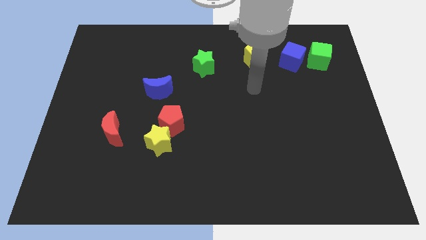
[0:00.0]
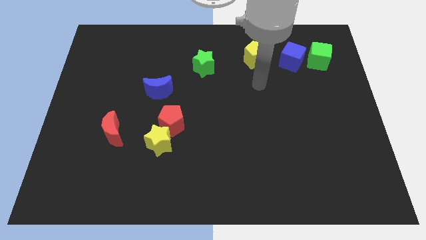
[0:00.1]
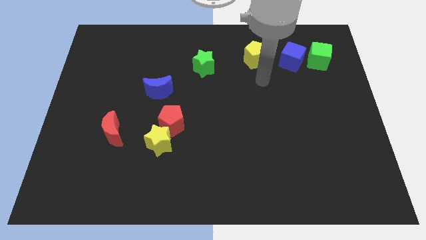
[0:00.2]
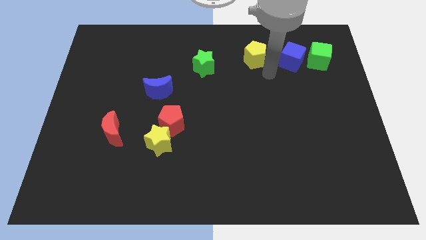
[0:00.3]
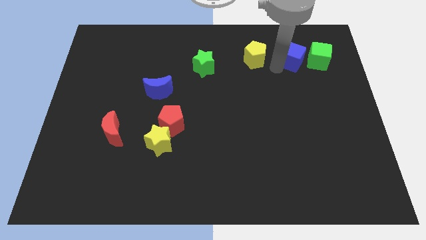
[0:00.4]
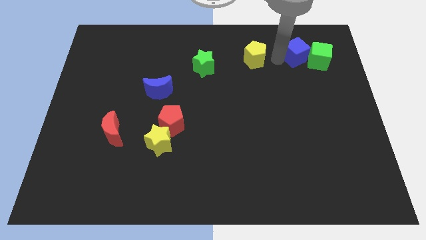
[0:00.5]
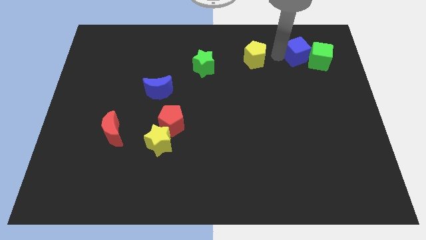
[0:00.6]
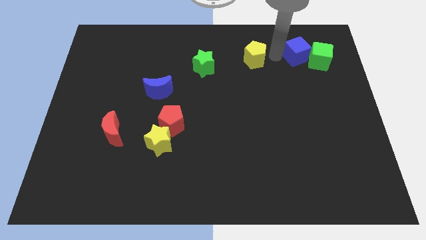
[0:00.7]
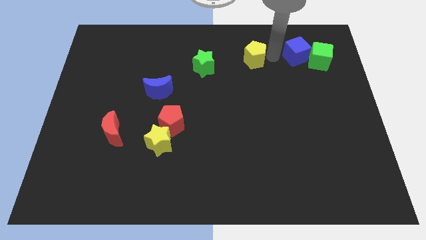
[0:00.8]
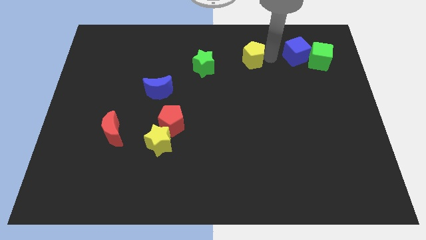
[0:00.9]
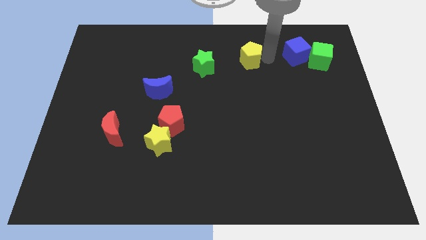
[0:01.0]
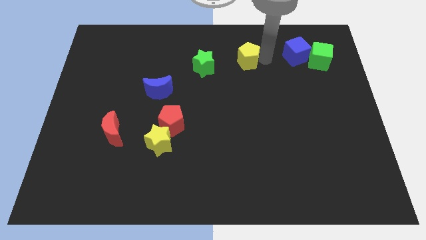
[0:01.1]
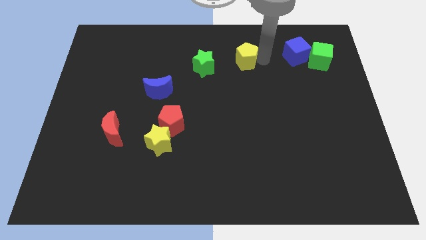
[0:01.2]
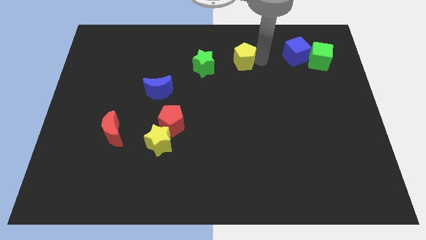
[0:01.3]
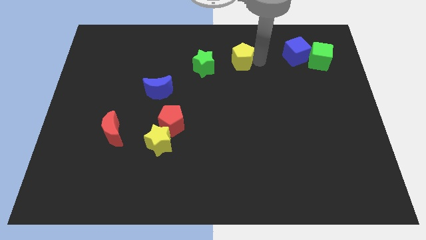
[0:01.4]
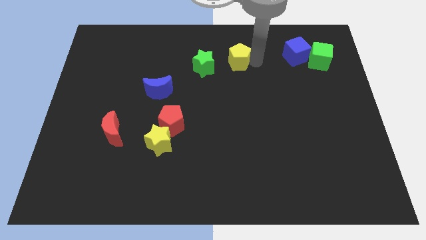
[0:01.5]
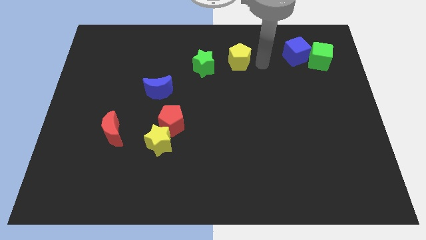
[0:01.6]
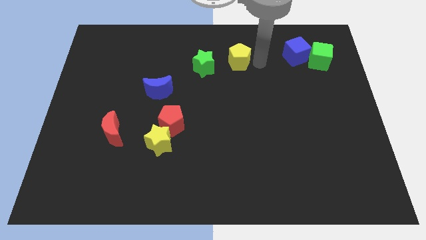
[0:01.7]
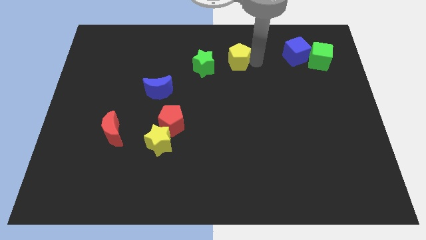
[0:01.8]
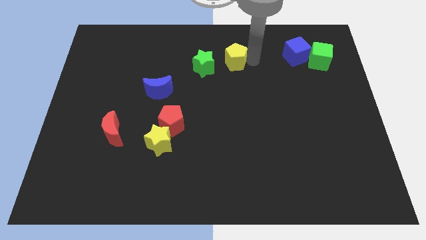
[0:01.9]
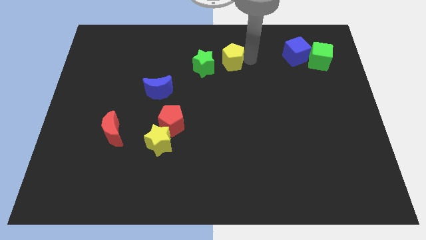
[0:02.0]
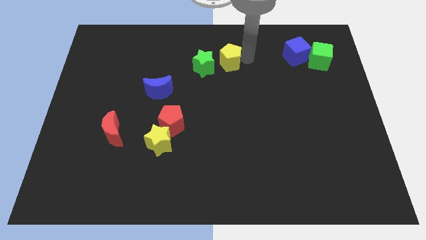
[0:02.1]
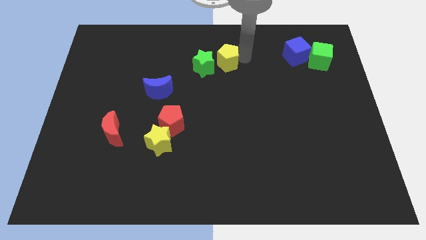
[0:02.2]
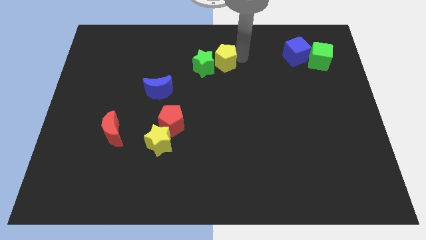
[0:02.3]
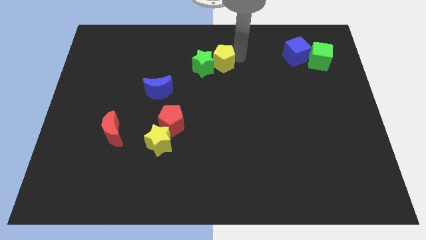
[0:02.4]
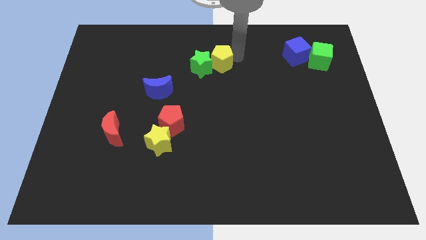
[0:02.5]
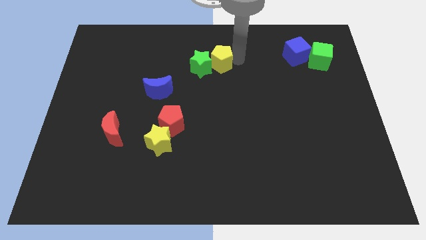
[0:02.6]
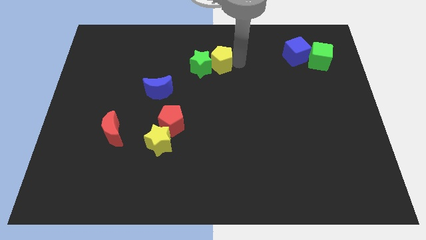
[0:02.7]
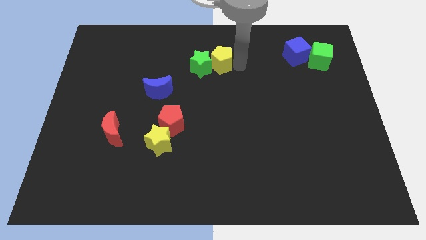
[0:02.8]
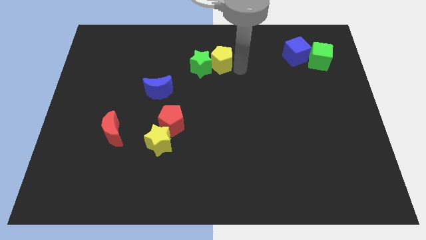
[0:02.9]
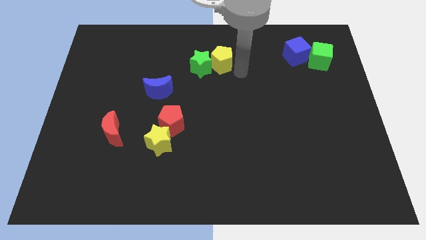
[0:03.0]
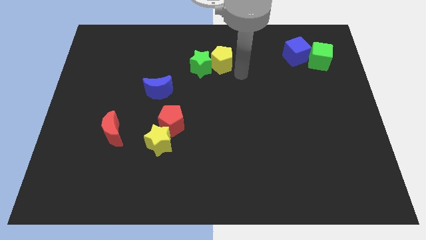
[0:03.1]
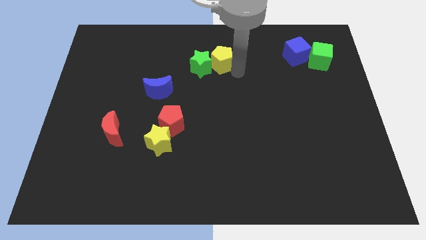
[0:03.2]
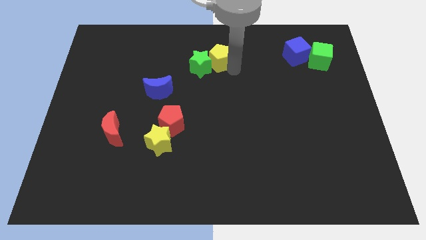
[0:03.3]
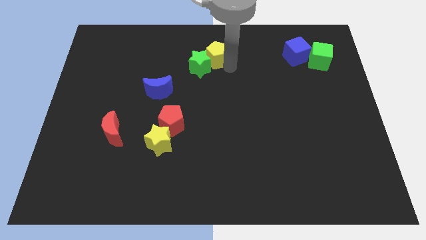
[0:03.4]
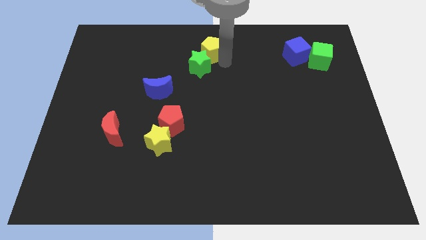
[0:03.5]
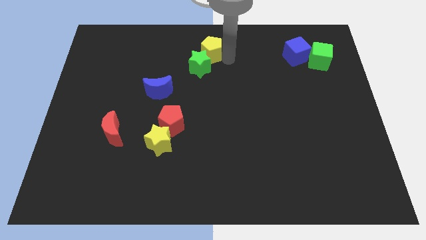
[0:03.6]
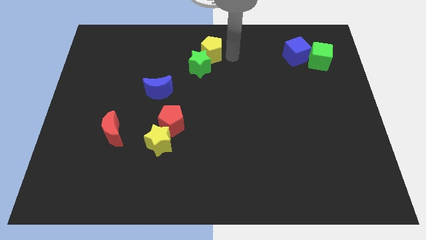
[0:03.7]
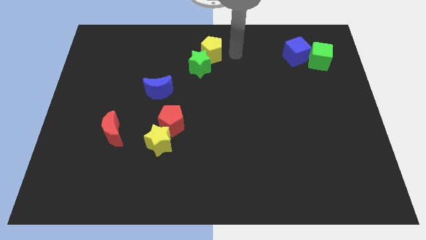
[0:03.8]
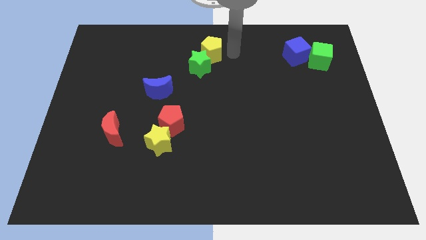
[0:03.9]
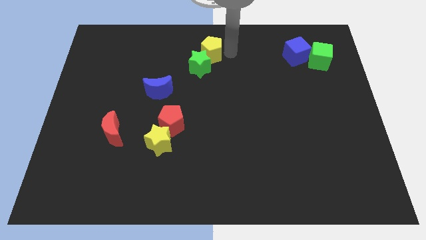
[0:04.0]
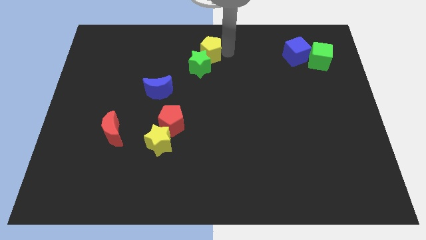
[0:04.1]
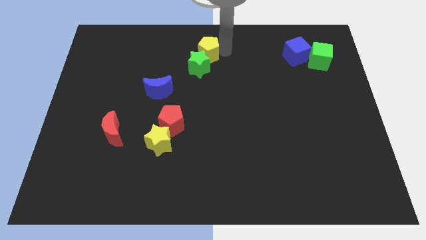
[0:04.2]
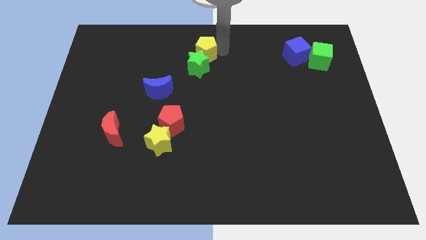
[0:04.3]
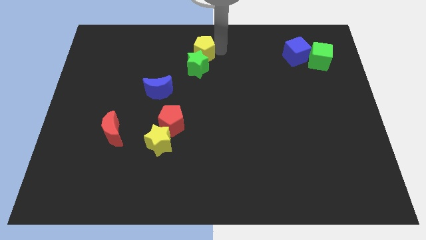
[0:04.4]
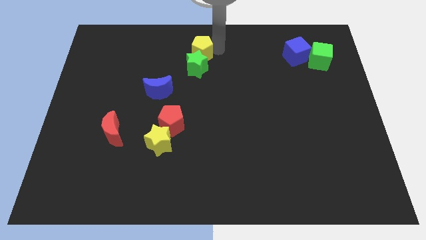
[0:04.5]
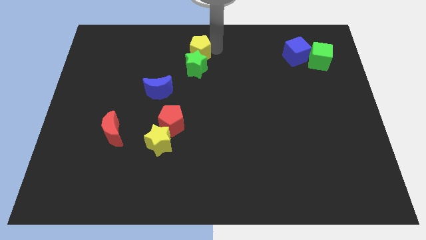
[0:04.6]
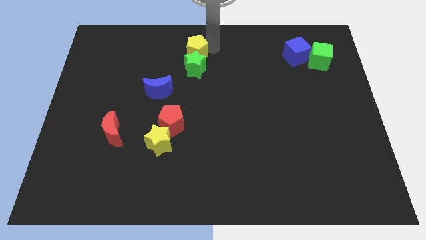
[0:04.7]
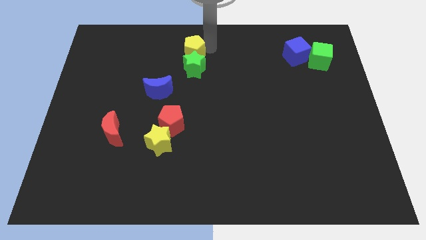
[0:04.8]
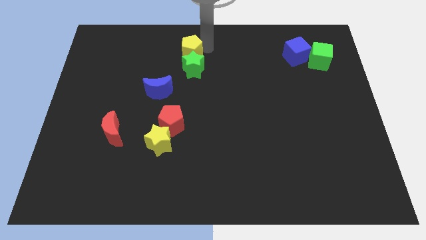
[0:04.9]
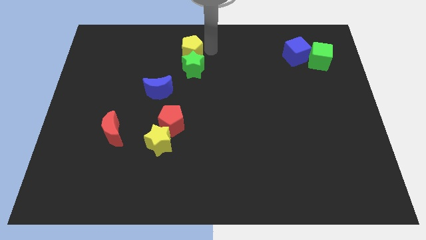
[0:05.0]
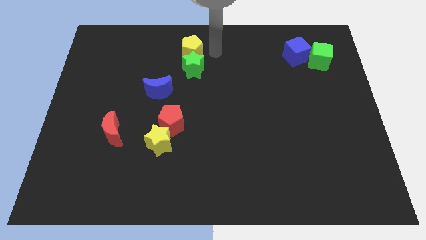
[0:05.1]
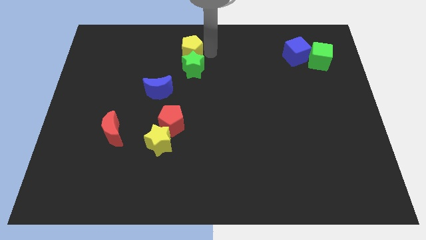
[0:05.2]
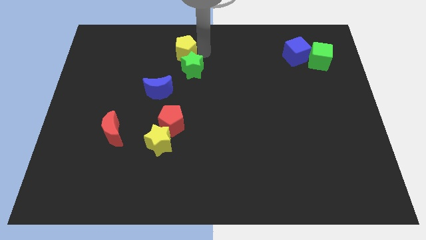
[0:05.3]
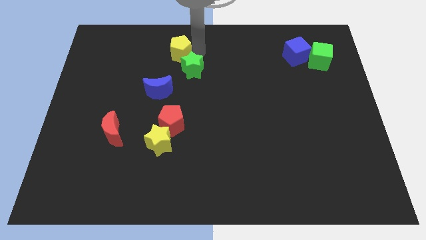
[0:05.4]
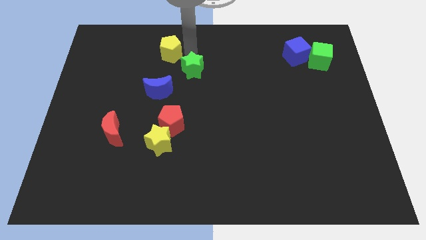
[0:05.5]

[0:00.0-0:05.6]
push the yellow pentagon to the left

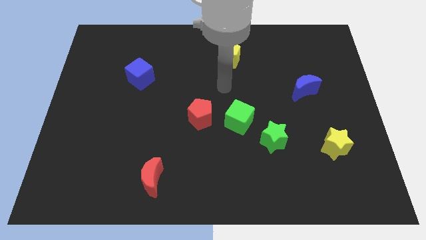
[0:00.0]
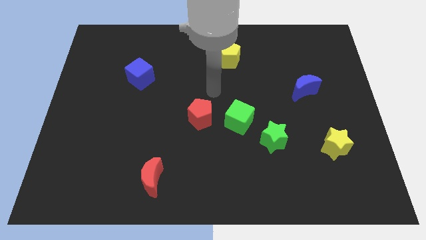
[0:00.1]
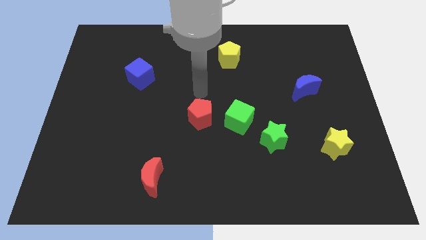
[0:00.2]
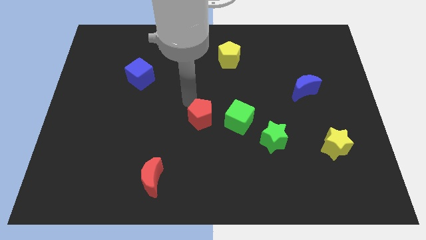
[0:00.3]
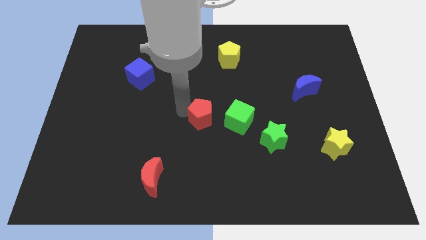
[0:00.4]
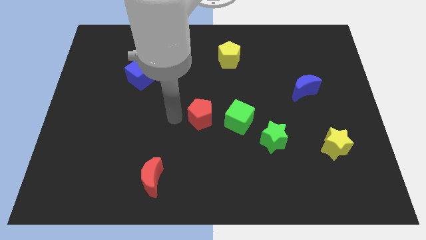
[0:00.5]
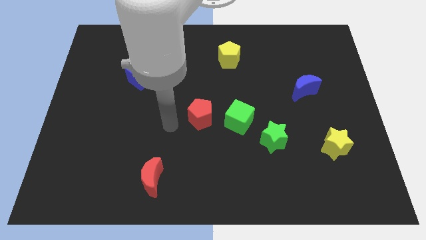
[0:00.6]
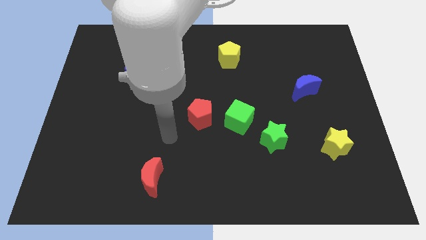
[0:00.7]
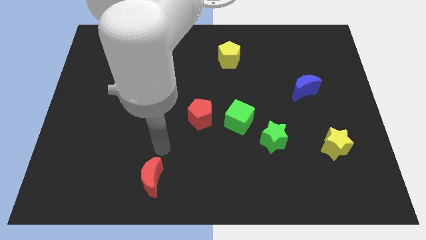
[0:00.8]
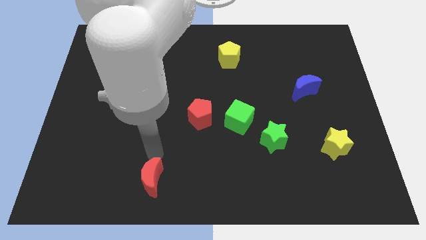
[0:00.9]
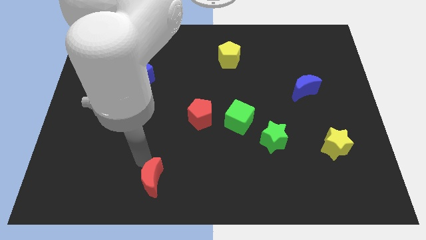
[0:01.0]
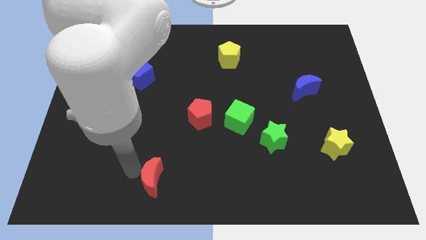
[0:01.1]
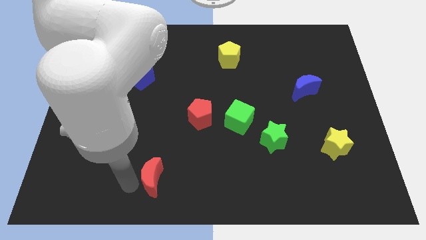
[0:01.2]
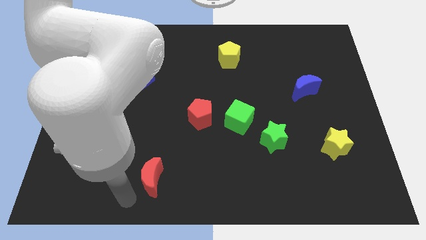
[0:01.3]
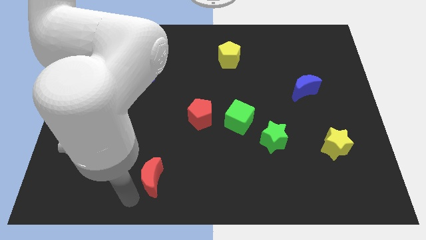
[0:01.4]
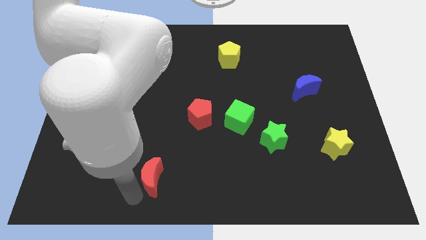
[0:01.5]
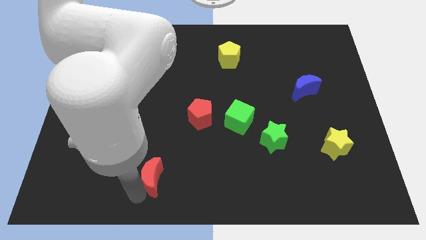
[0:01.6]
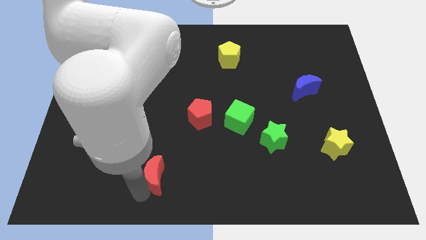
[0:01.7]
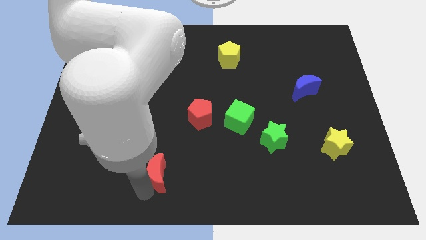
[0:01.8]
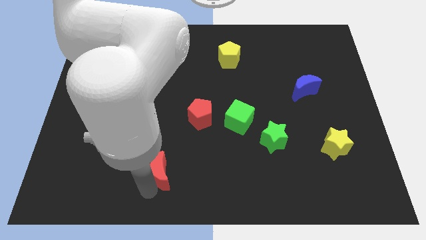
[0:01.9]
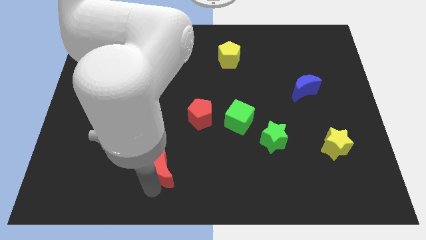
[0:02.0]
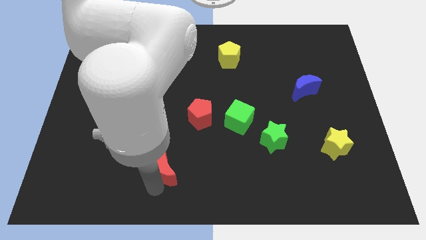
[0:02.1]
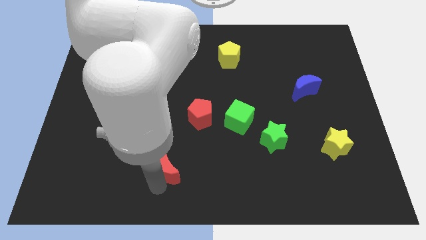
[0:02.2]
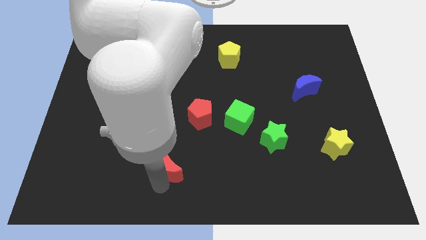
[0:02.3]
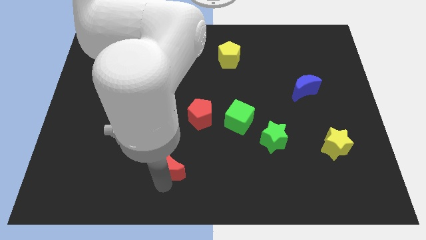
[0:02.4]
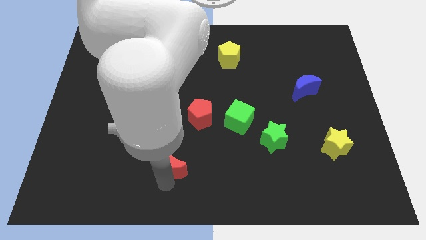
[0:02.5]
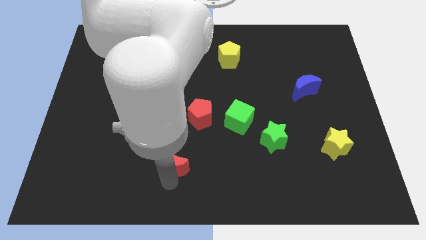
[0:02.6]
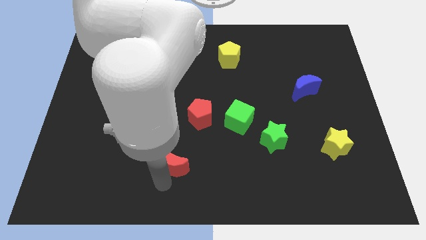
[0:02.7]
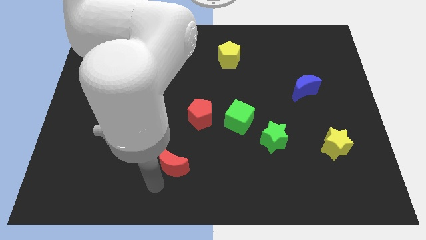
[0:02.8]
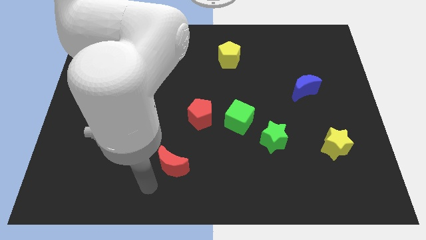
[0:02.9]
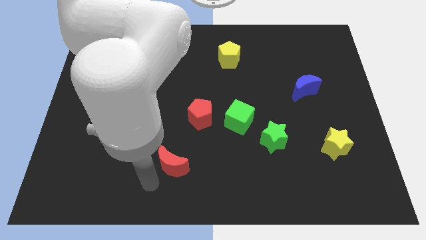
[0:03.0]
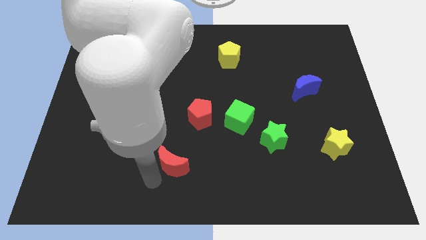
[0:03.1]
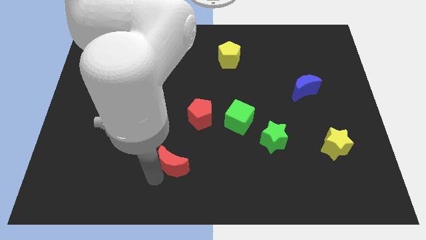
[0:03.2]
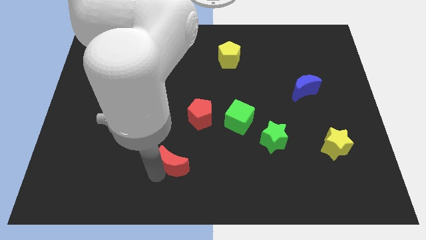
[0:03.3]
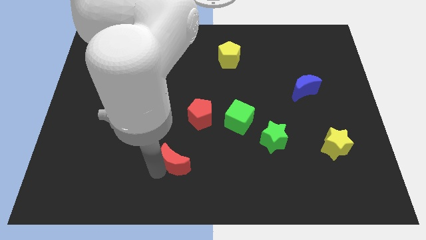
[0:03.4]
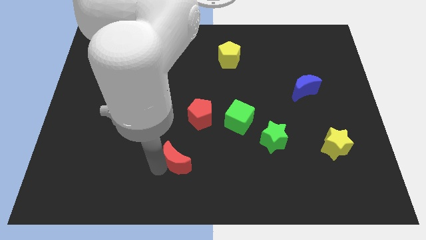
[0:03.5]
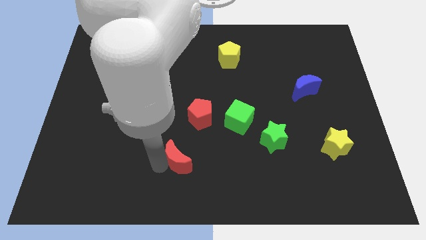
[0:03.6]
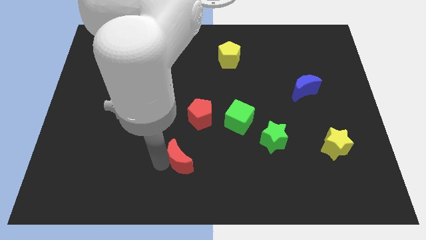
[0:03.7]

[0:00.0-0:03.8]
slide the red moon a little bit up and to the right
